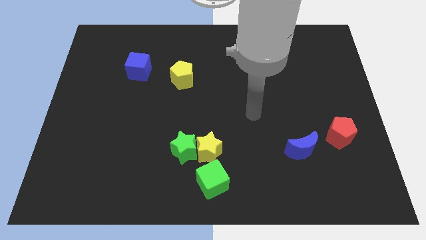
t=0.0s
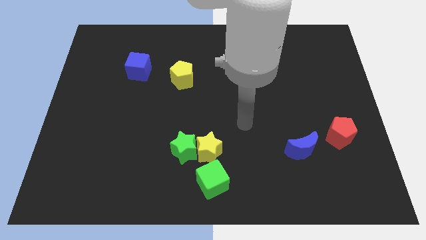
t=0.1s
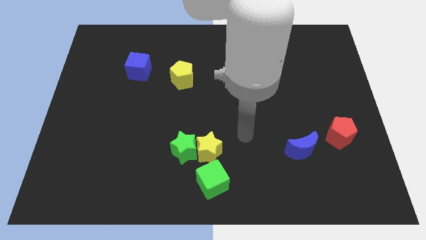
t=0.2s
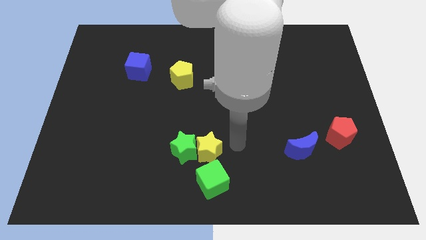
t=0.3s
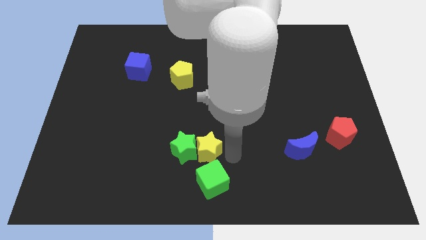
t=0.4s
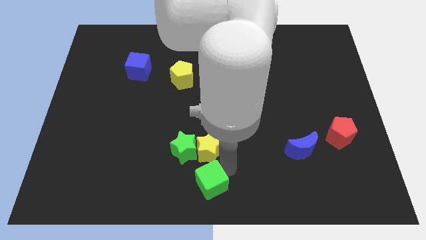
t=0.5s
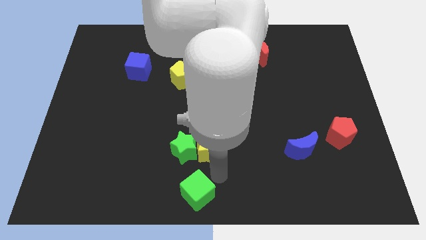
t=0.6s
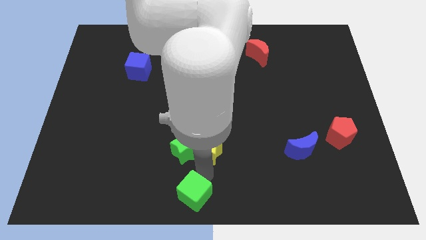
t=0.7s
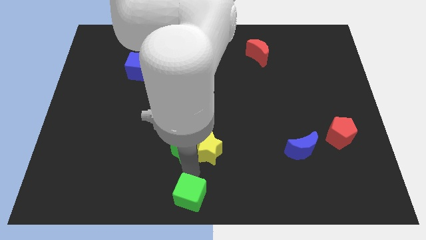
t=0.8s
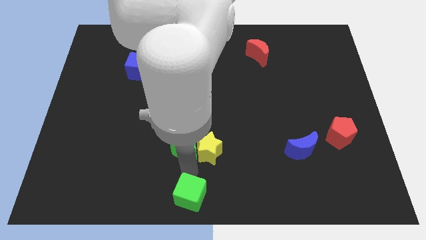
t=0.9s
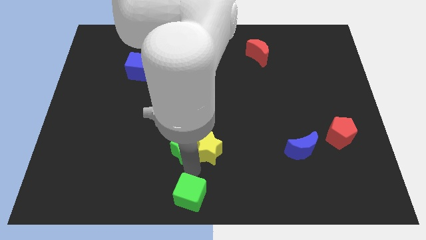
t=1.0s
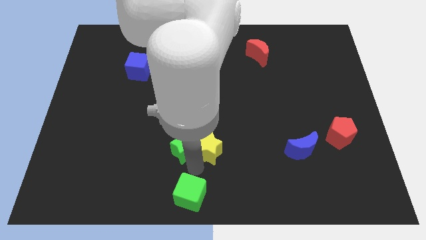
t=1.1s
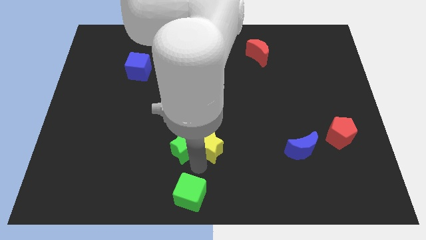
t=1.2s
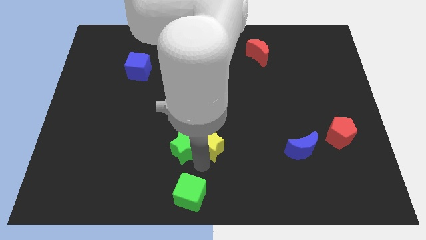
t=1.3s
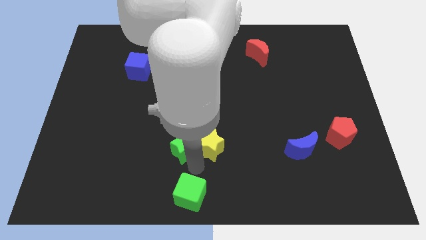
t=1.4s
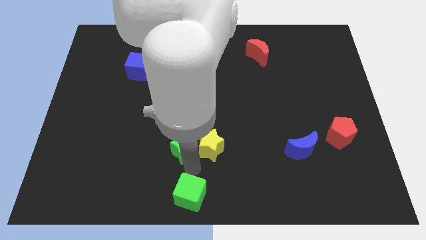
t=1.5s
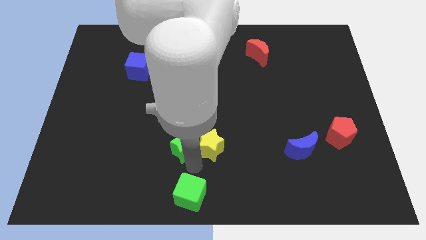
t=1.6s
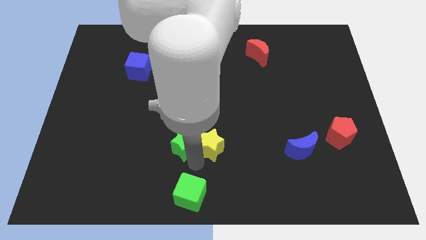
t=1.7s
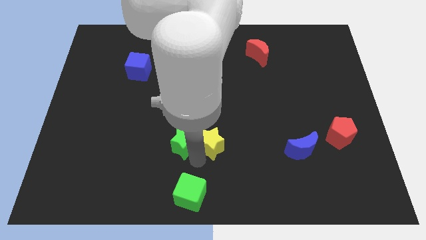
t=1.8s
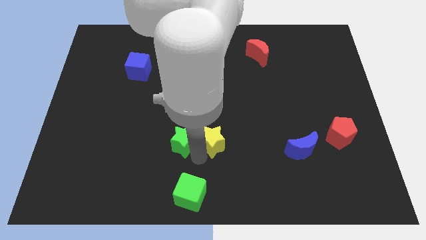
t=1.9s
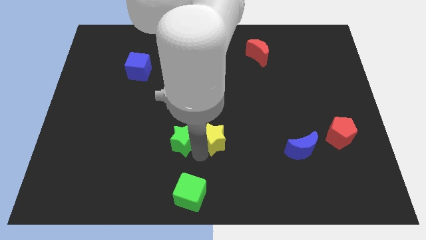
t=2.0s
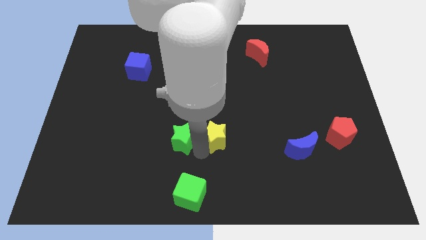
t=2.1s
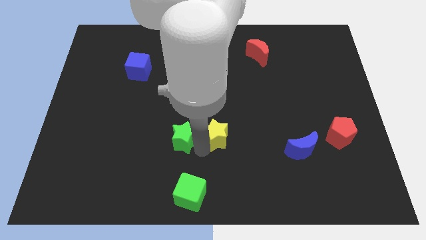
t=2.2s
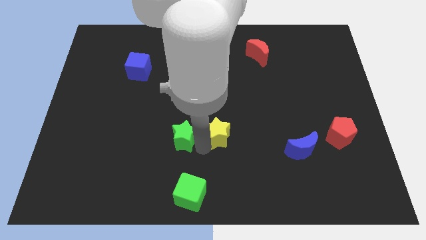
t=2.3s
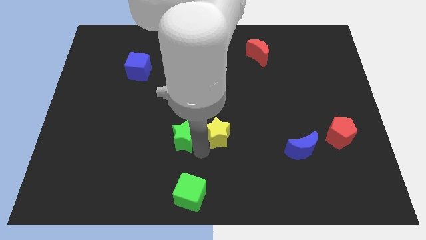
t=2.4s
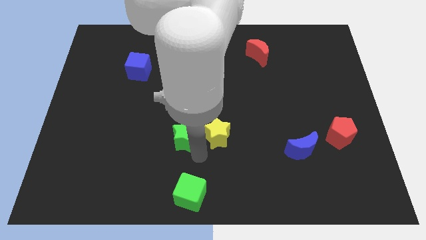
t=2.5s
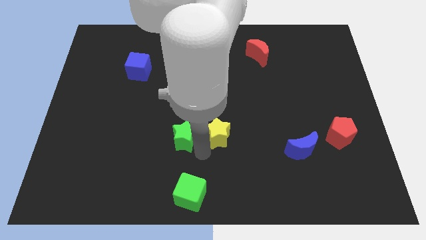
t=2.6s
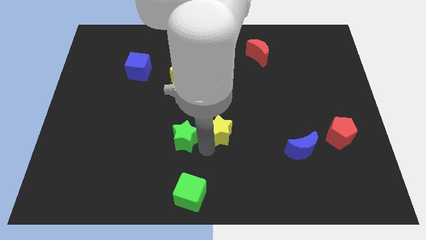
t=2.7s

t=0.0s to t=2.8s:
move the yellow star away from the green star and green cube

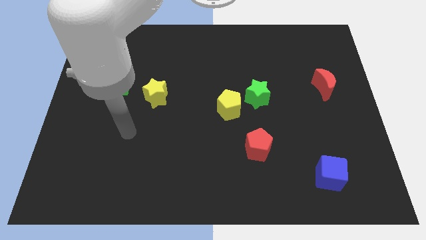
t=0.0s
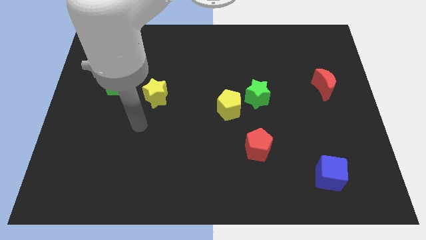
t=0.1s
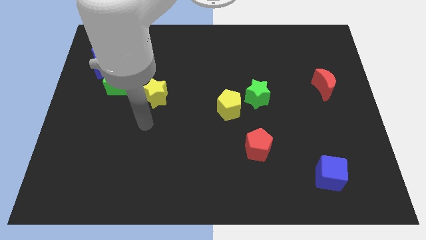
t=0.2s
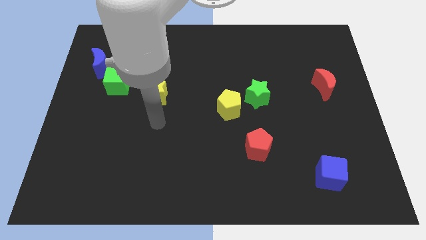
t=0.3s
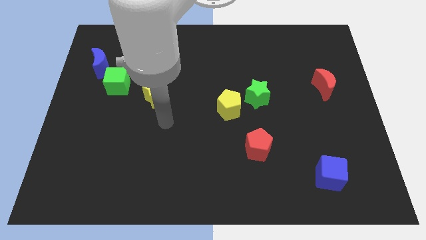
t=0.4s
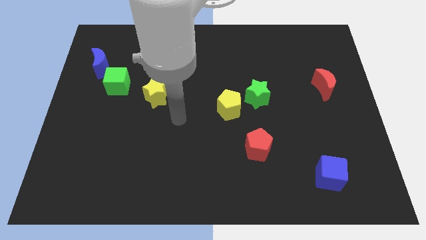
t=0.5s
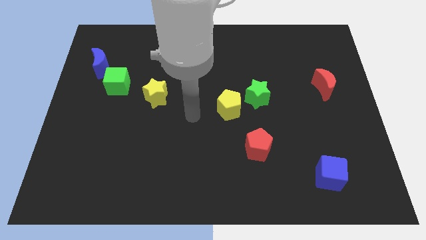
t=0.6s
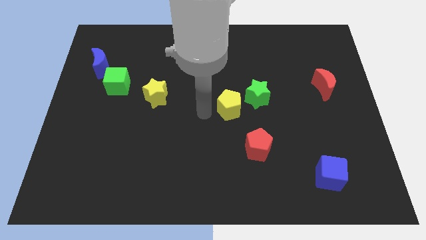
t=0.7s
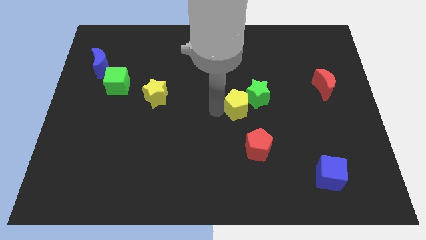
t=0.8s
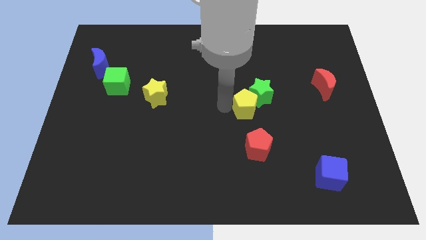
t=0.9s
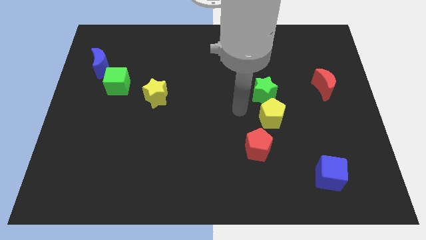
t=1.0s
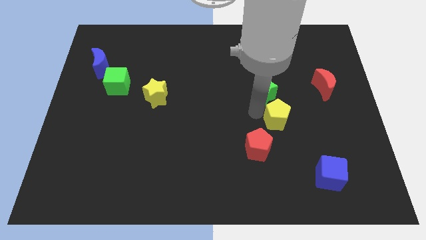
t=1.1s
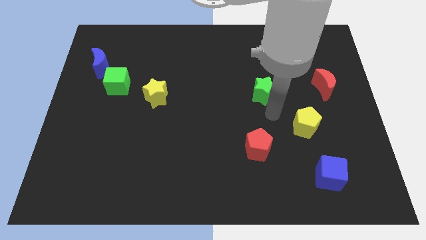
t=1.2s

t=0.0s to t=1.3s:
pull the green star apart from the yellow pentagon

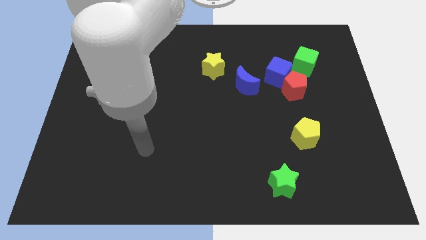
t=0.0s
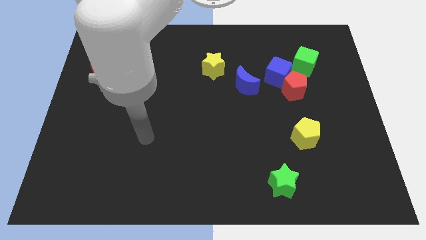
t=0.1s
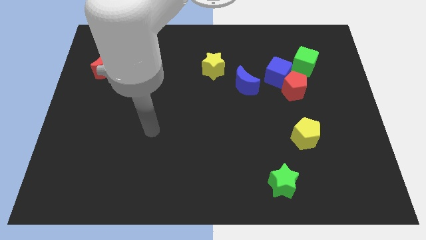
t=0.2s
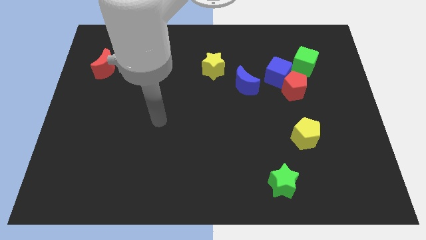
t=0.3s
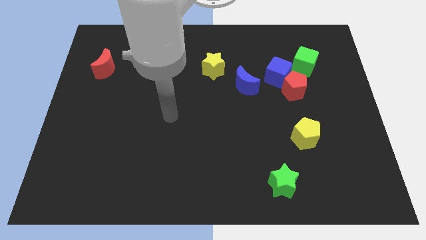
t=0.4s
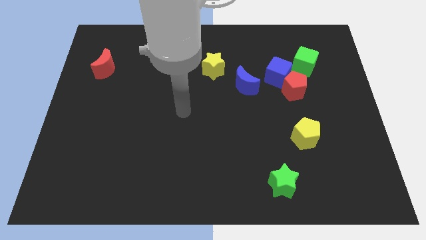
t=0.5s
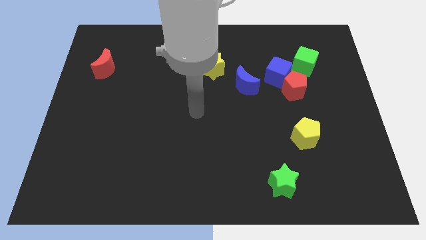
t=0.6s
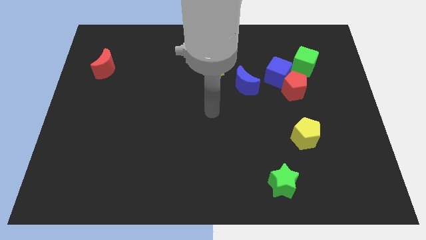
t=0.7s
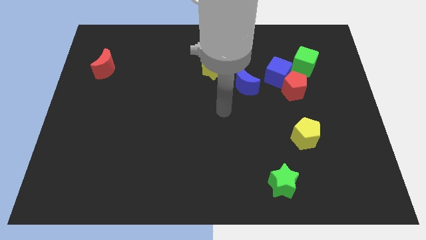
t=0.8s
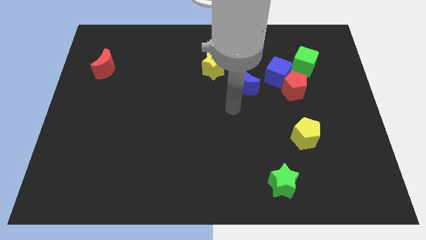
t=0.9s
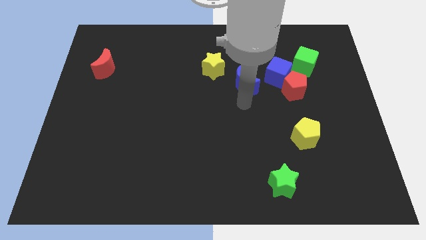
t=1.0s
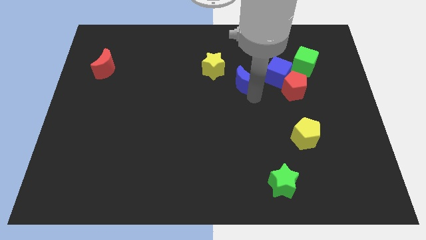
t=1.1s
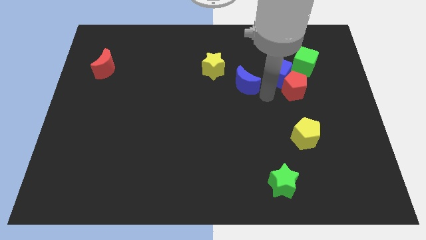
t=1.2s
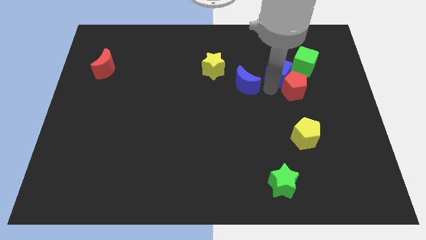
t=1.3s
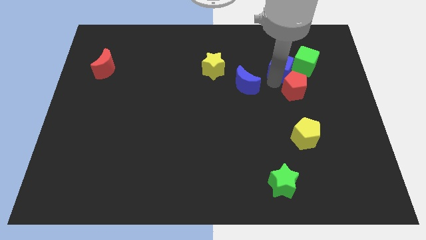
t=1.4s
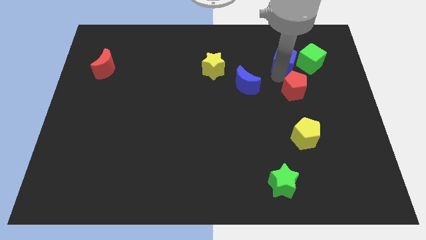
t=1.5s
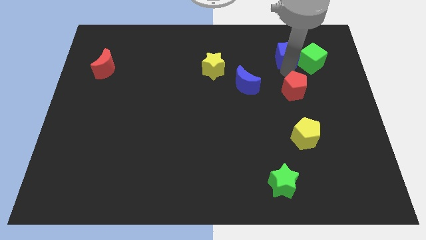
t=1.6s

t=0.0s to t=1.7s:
separate the red pentagon from the blue cube and green cube

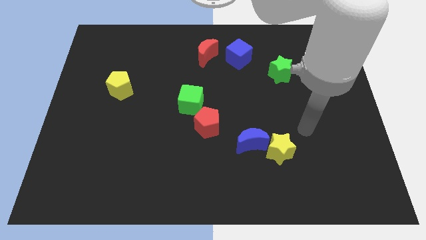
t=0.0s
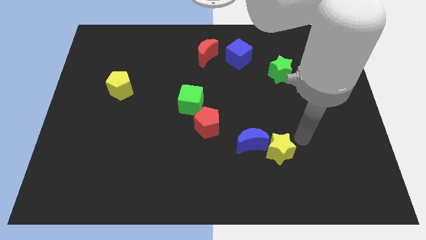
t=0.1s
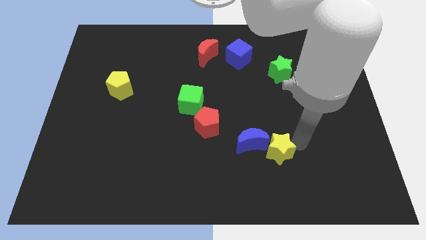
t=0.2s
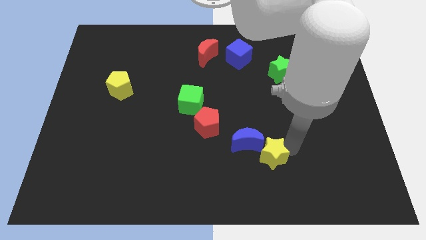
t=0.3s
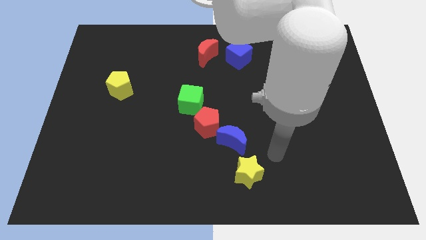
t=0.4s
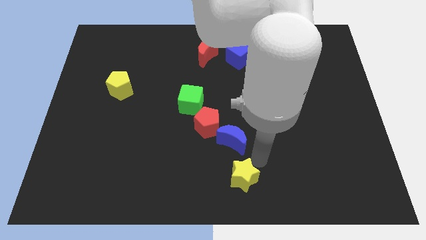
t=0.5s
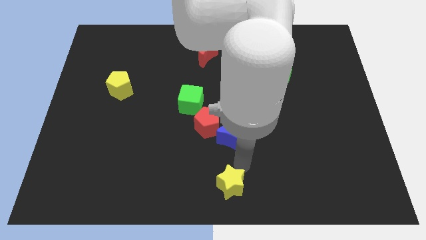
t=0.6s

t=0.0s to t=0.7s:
pull the blue moon apart from the yellow star

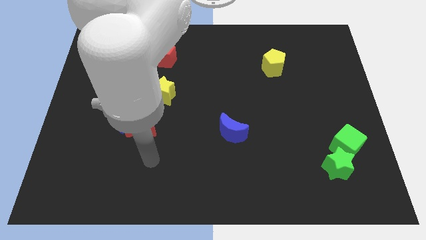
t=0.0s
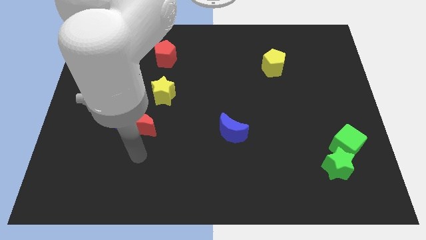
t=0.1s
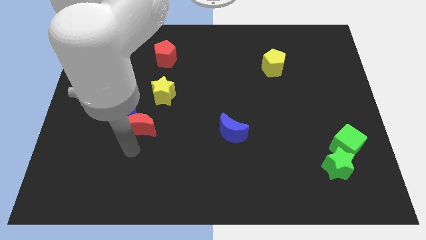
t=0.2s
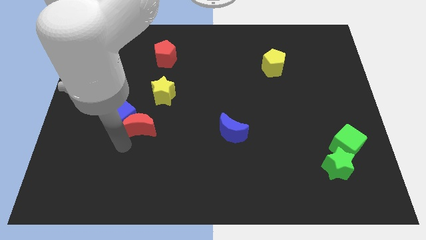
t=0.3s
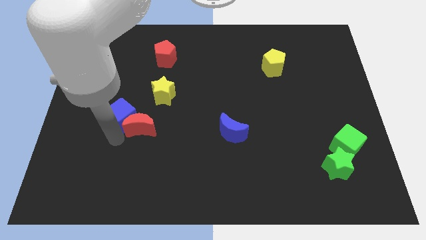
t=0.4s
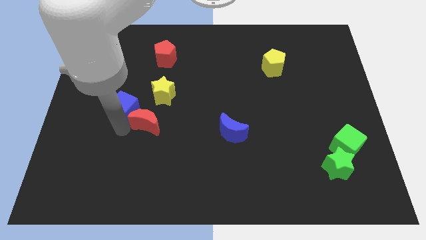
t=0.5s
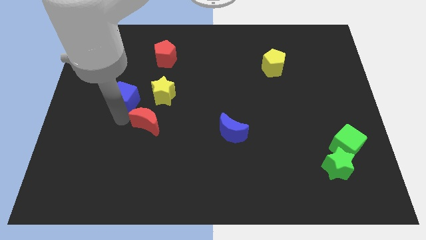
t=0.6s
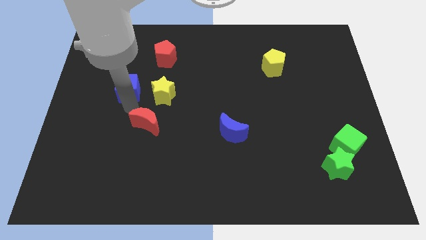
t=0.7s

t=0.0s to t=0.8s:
move the red moon away from the blue cube

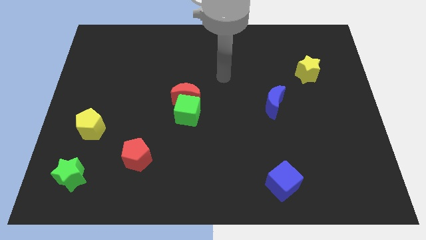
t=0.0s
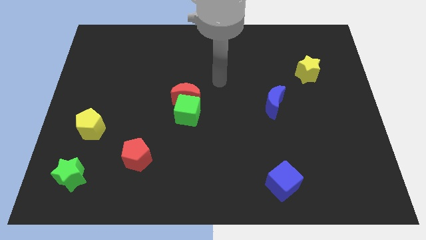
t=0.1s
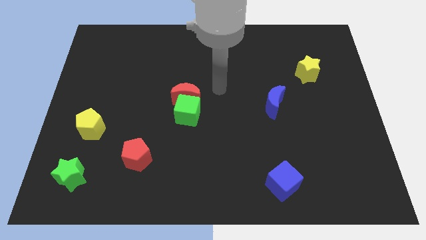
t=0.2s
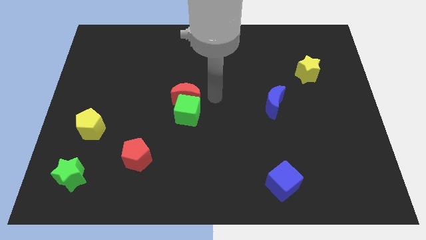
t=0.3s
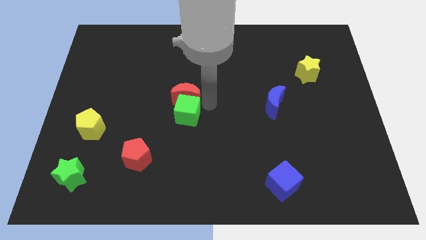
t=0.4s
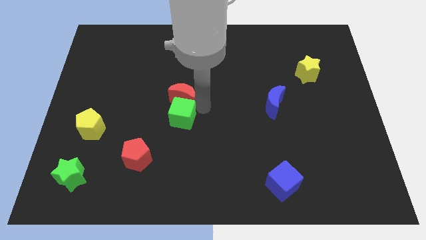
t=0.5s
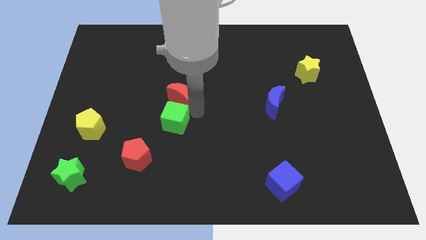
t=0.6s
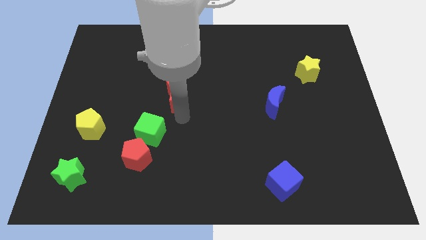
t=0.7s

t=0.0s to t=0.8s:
separate the red moon from the green cube

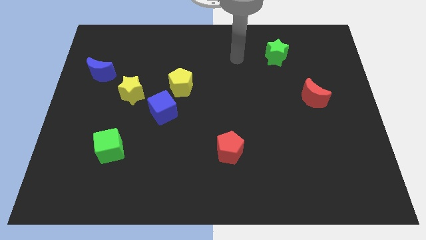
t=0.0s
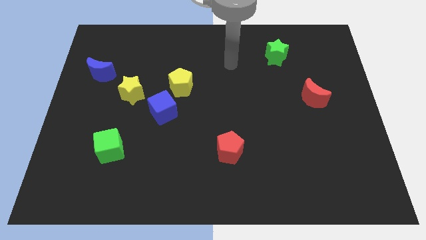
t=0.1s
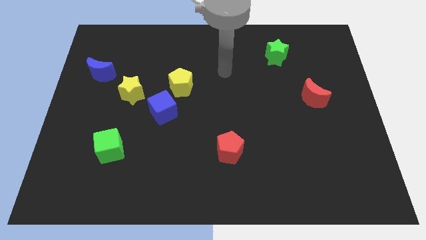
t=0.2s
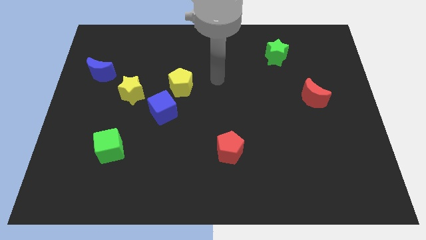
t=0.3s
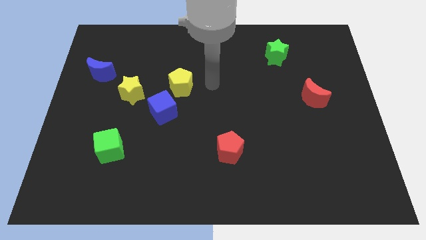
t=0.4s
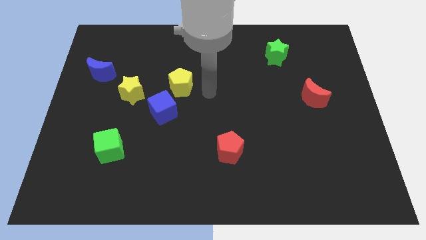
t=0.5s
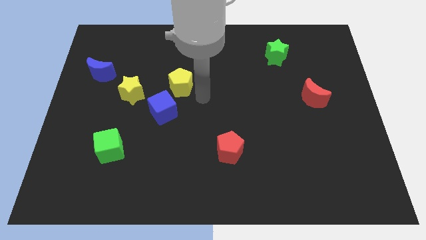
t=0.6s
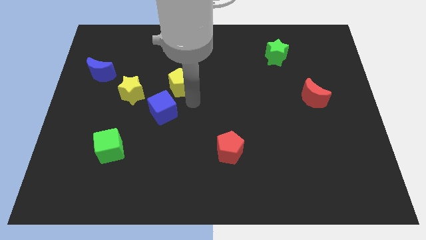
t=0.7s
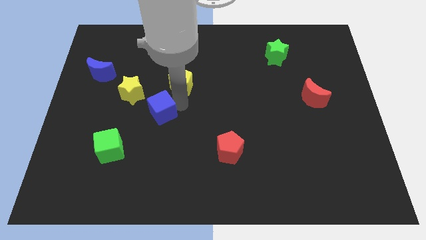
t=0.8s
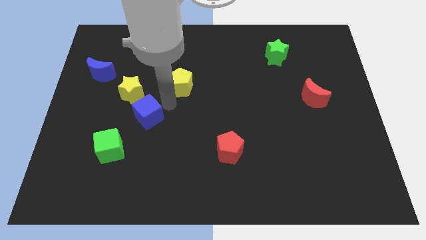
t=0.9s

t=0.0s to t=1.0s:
separate the yellow pentagon from the blue cube
